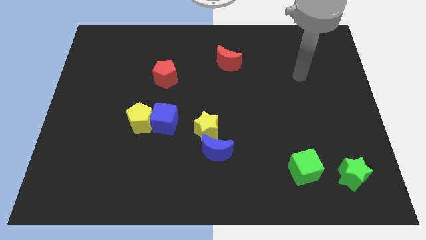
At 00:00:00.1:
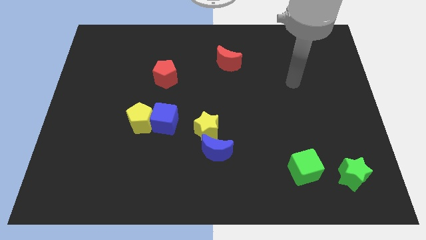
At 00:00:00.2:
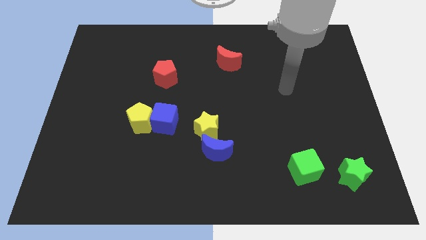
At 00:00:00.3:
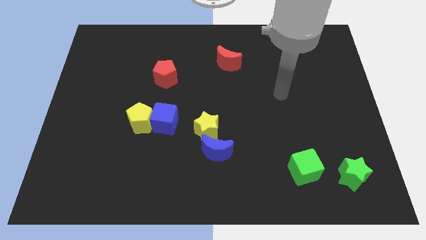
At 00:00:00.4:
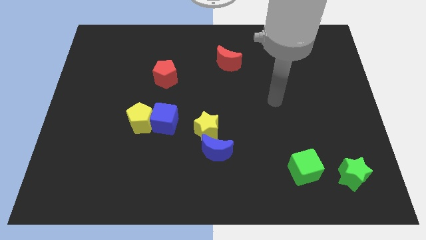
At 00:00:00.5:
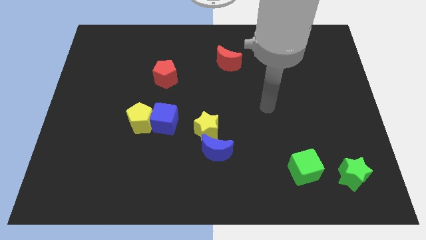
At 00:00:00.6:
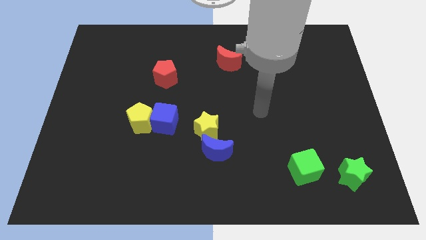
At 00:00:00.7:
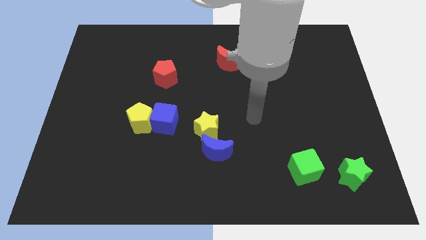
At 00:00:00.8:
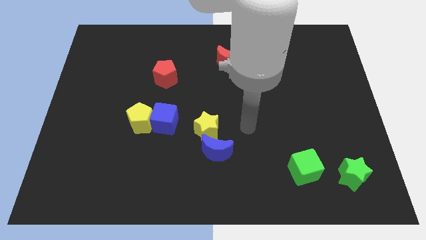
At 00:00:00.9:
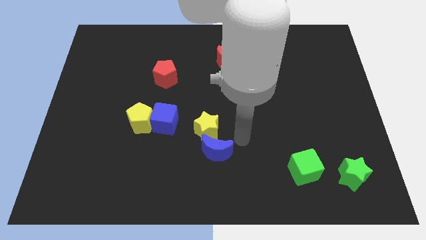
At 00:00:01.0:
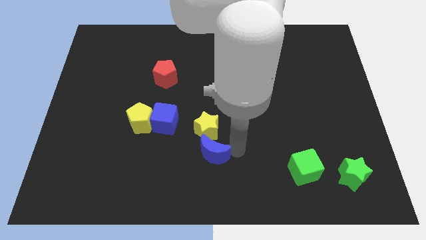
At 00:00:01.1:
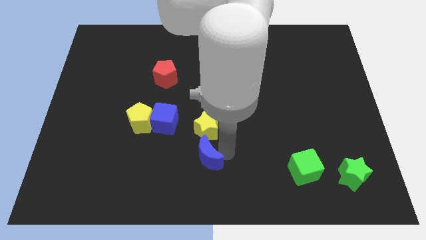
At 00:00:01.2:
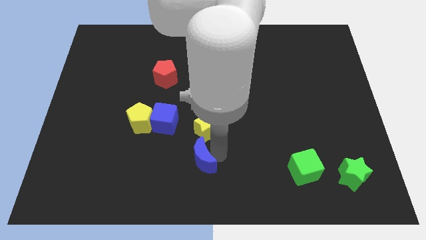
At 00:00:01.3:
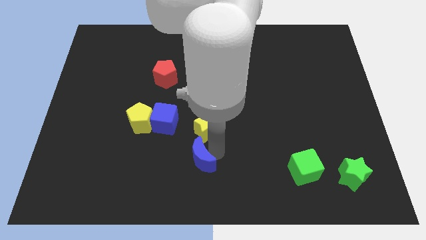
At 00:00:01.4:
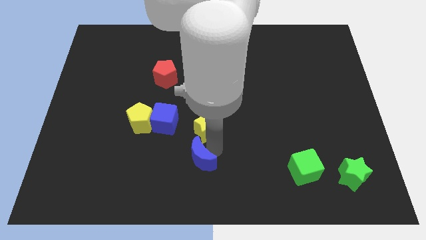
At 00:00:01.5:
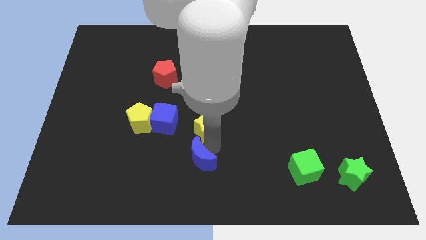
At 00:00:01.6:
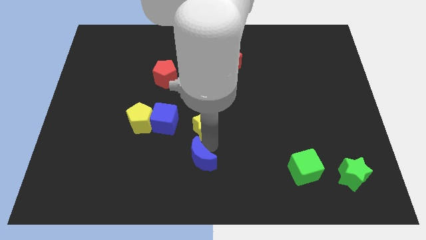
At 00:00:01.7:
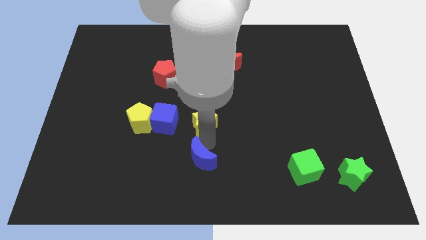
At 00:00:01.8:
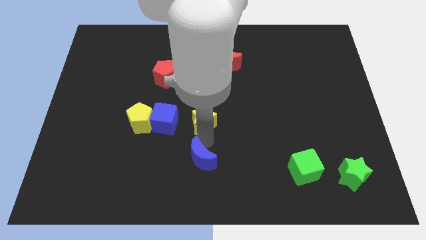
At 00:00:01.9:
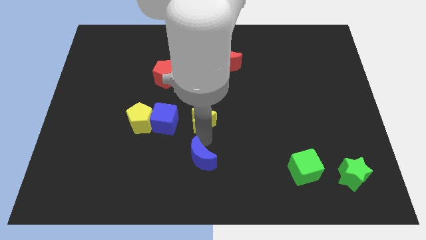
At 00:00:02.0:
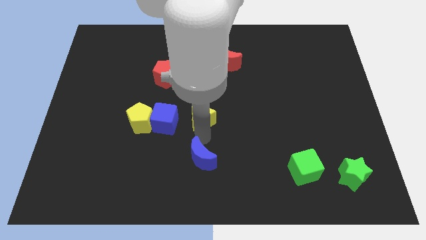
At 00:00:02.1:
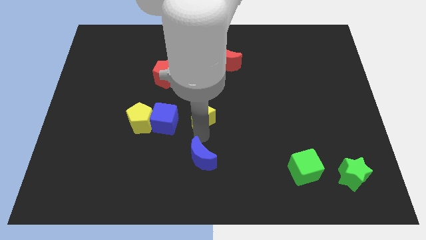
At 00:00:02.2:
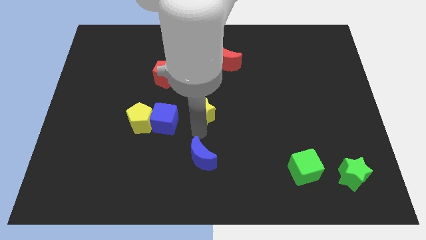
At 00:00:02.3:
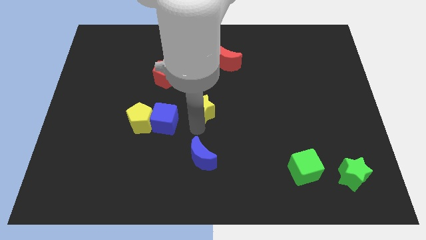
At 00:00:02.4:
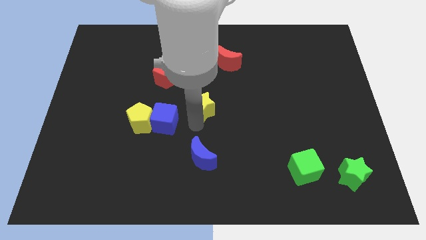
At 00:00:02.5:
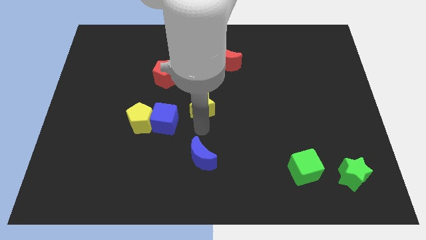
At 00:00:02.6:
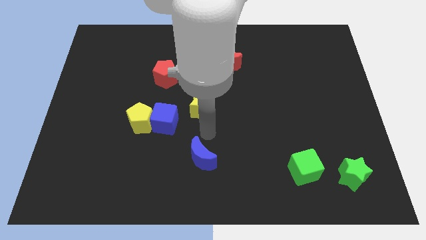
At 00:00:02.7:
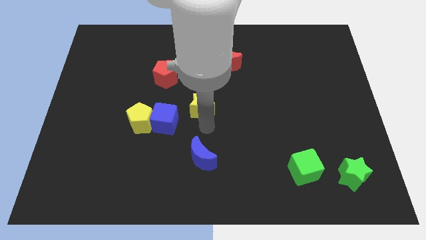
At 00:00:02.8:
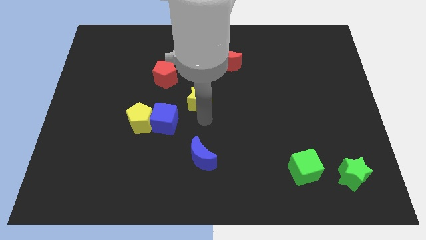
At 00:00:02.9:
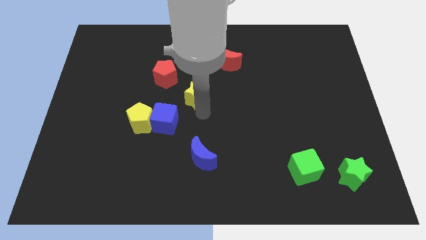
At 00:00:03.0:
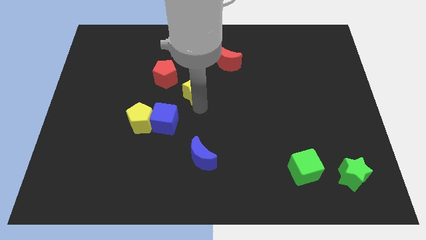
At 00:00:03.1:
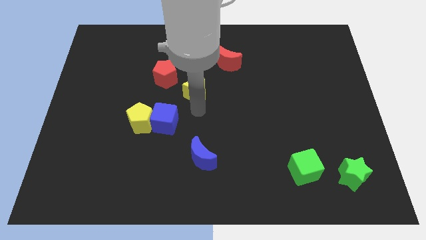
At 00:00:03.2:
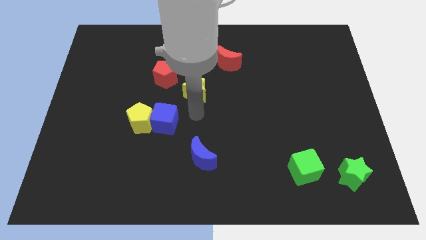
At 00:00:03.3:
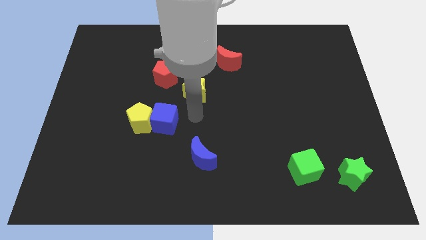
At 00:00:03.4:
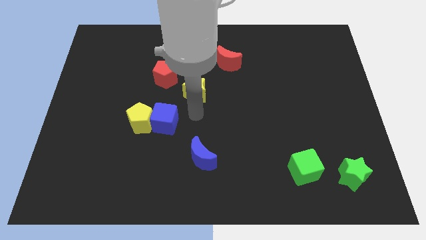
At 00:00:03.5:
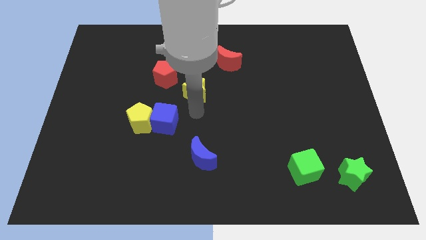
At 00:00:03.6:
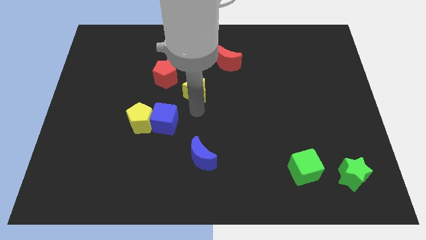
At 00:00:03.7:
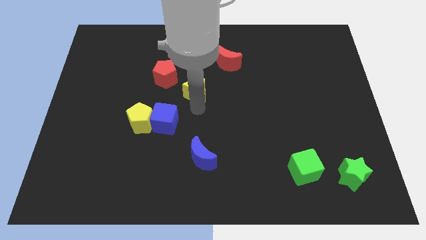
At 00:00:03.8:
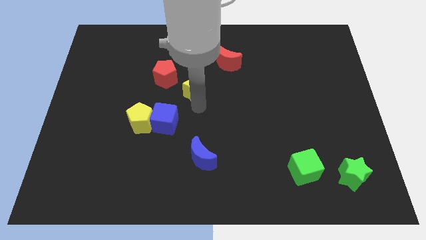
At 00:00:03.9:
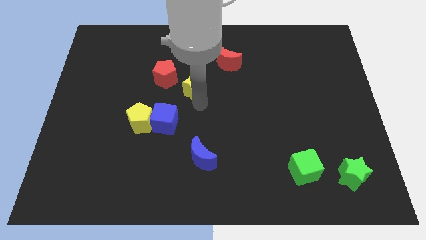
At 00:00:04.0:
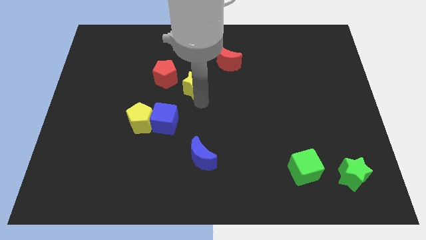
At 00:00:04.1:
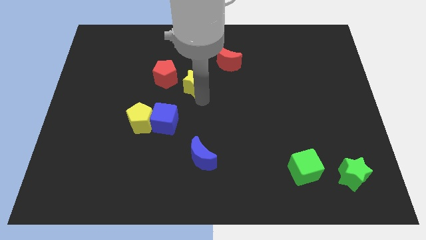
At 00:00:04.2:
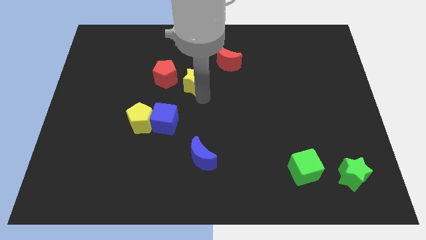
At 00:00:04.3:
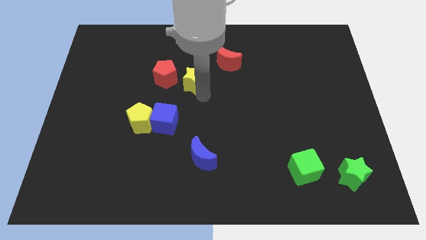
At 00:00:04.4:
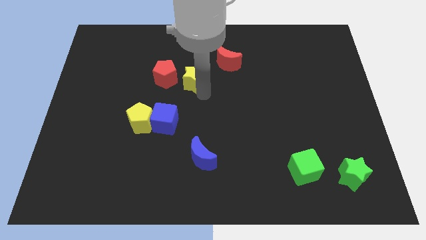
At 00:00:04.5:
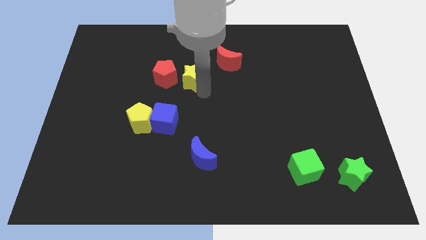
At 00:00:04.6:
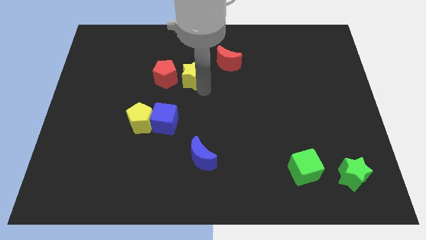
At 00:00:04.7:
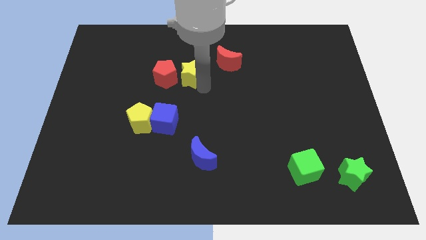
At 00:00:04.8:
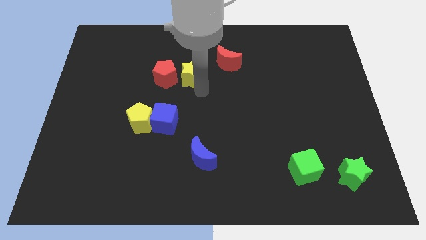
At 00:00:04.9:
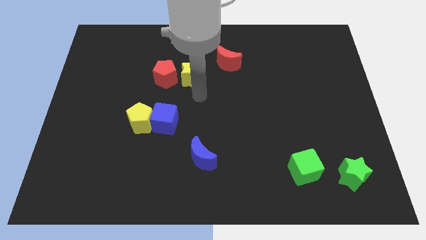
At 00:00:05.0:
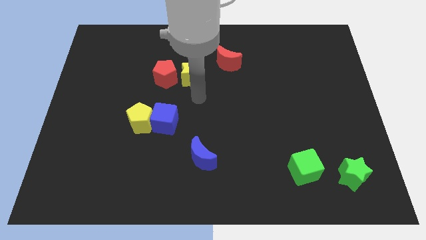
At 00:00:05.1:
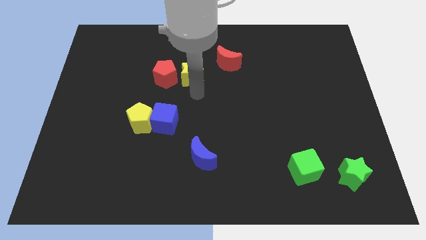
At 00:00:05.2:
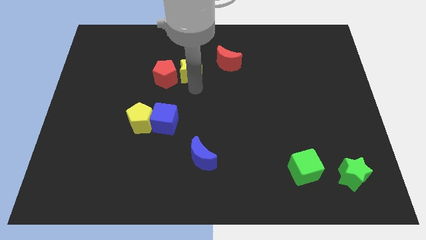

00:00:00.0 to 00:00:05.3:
put the yellow star just left of the red moon

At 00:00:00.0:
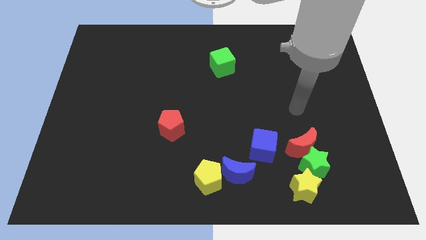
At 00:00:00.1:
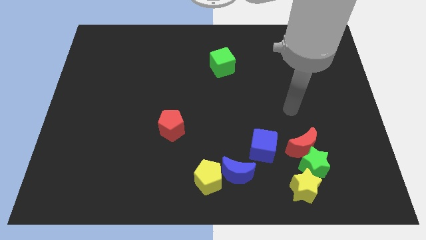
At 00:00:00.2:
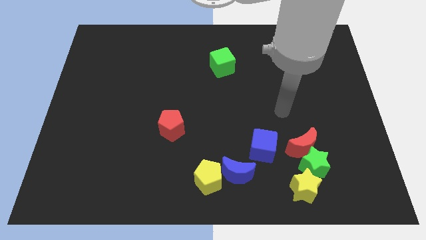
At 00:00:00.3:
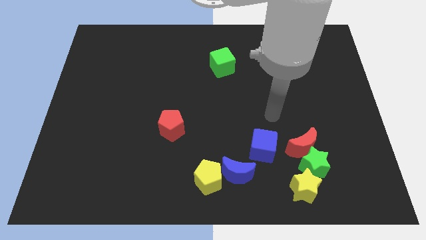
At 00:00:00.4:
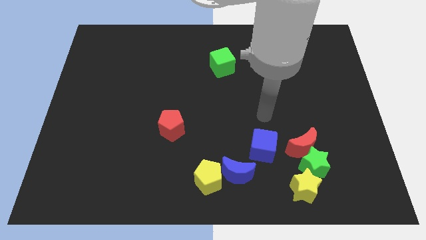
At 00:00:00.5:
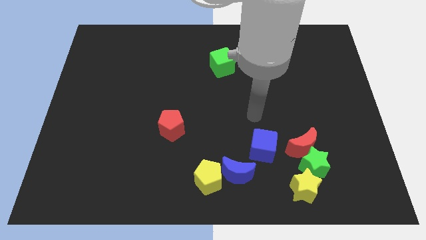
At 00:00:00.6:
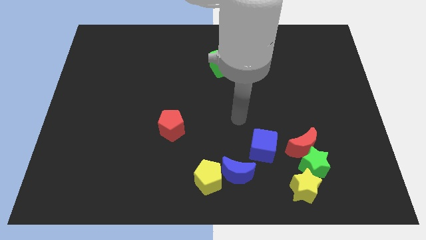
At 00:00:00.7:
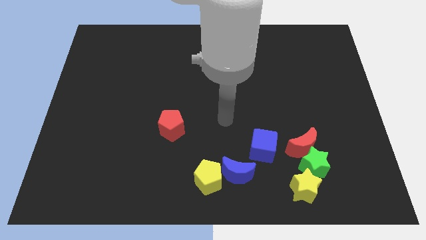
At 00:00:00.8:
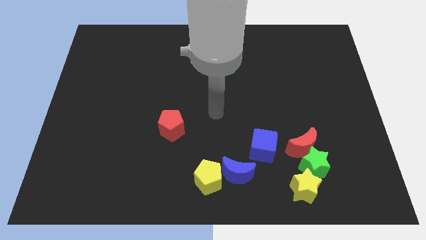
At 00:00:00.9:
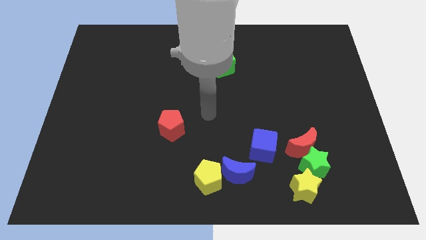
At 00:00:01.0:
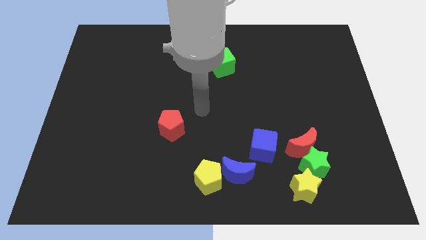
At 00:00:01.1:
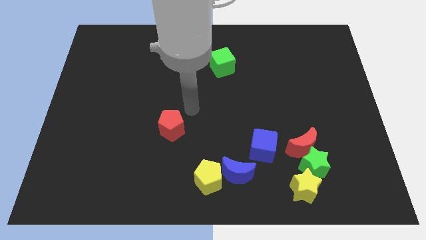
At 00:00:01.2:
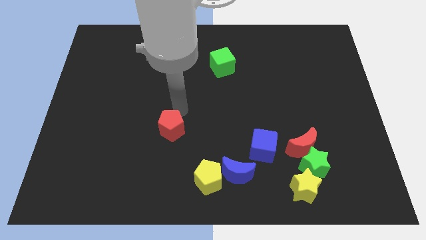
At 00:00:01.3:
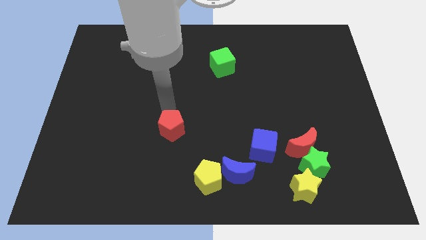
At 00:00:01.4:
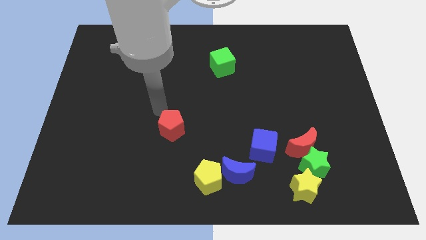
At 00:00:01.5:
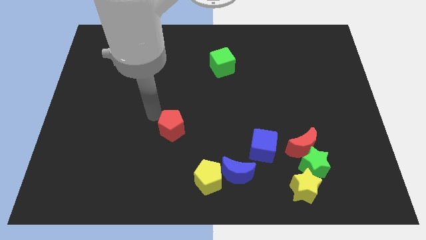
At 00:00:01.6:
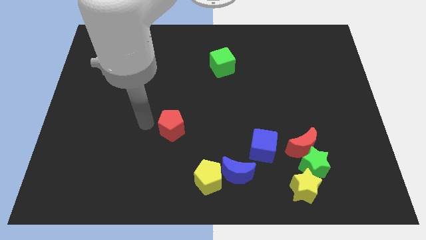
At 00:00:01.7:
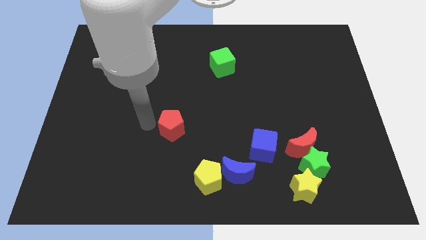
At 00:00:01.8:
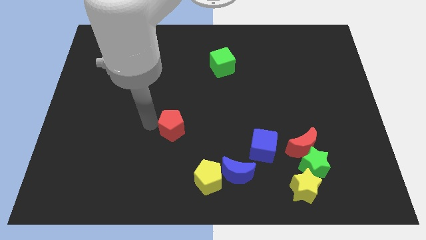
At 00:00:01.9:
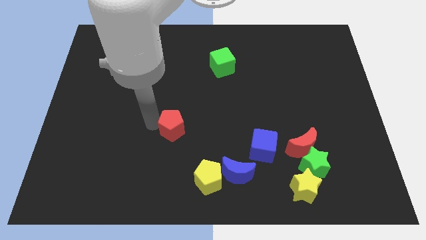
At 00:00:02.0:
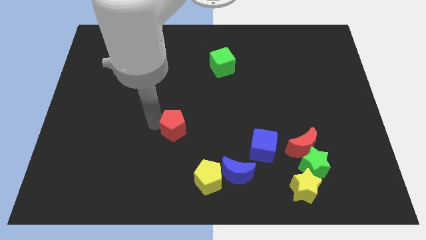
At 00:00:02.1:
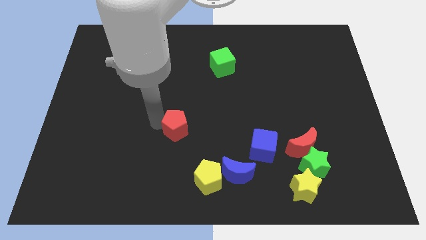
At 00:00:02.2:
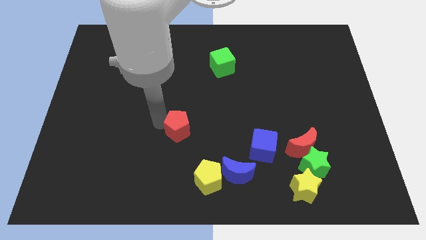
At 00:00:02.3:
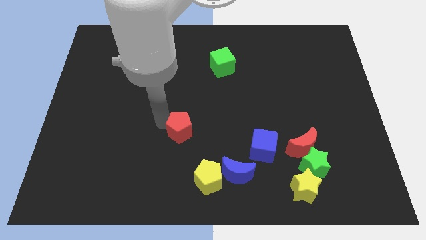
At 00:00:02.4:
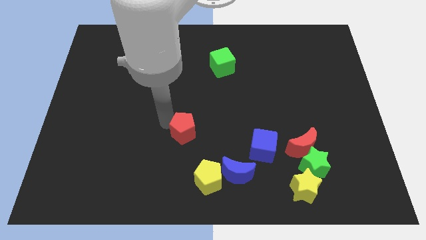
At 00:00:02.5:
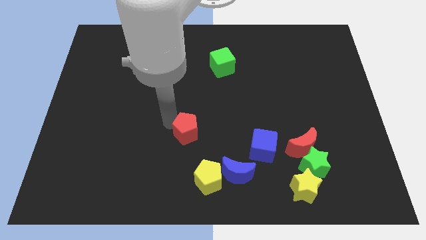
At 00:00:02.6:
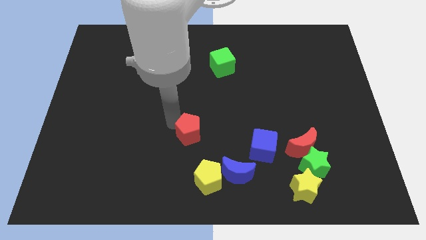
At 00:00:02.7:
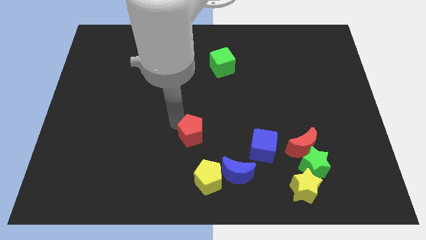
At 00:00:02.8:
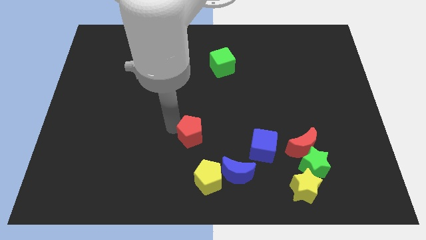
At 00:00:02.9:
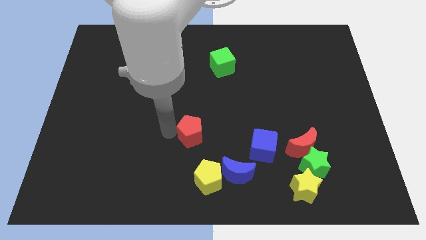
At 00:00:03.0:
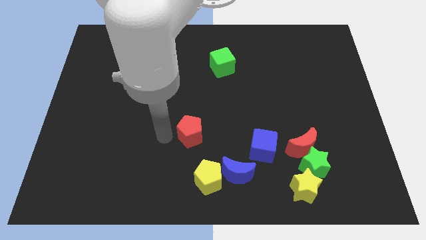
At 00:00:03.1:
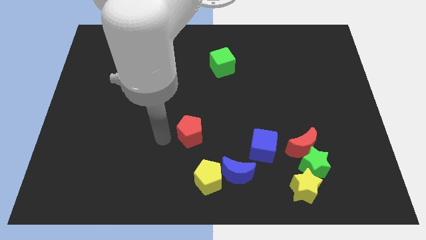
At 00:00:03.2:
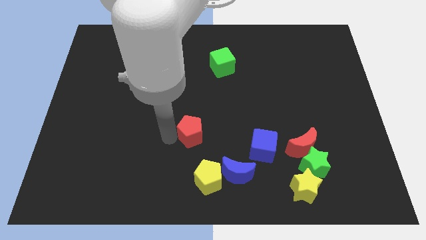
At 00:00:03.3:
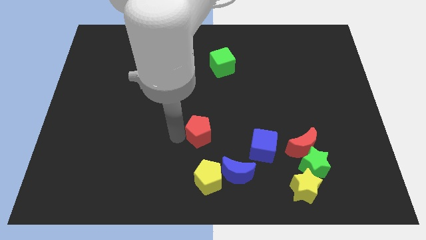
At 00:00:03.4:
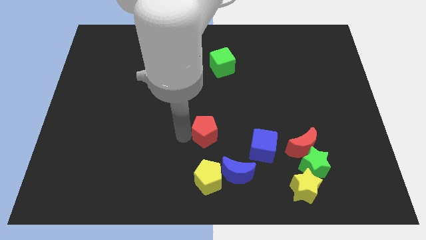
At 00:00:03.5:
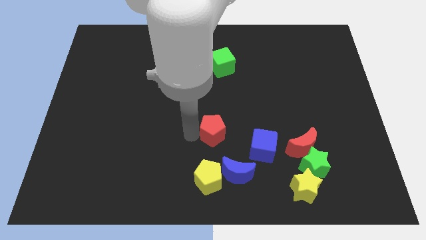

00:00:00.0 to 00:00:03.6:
put the red pentagon above the blue moon
